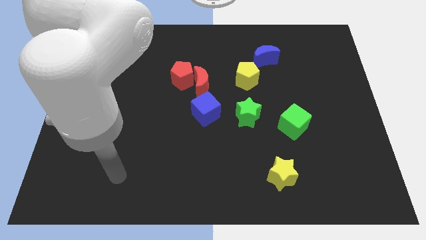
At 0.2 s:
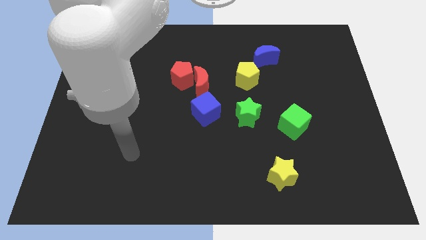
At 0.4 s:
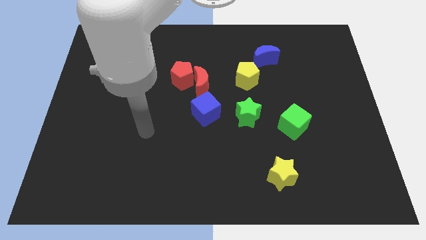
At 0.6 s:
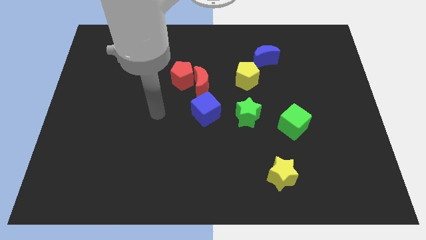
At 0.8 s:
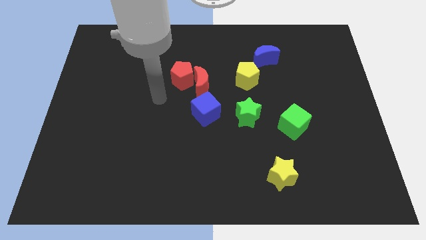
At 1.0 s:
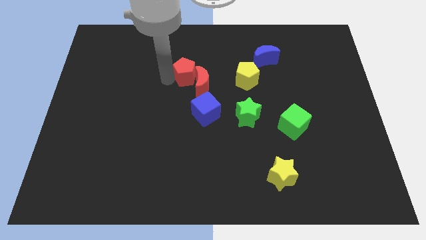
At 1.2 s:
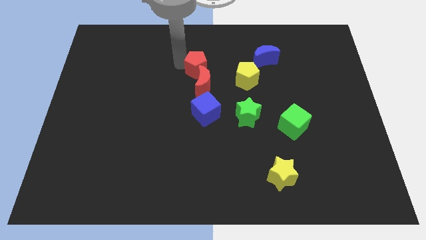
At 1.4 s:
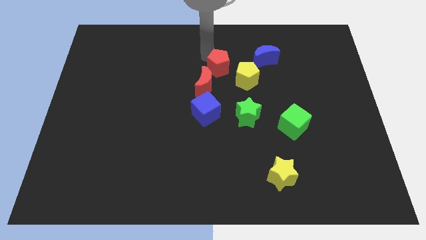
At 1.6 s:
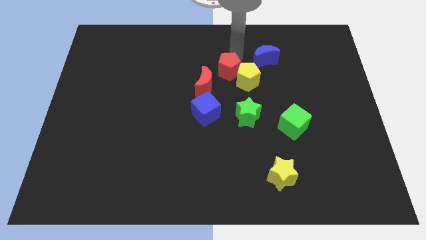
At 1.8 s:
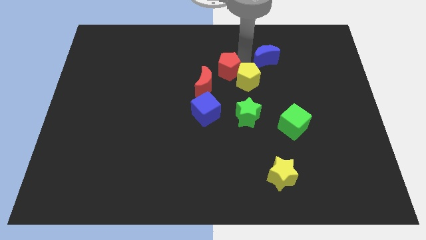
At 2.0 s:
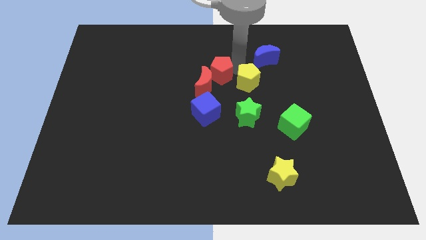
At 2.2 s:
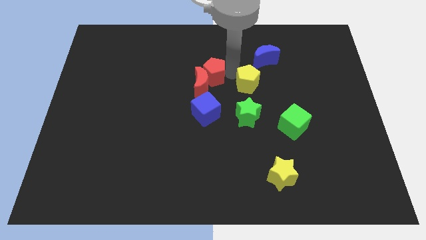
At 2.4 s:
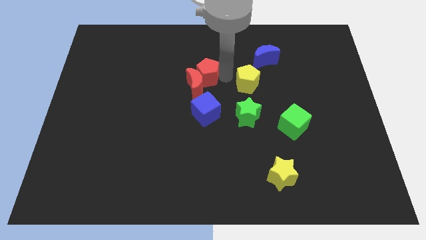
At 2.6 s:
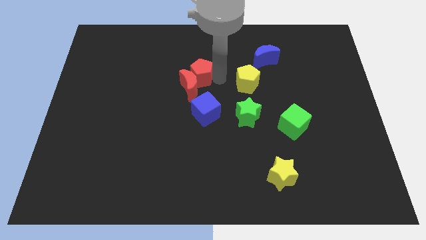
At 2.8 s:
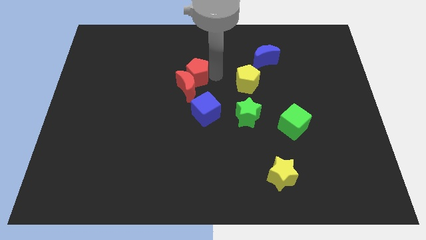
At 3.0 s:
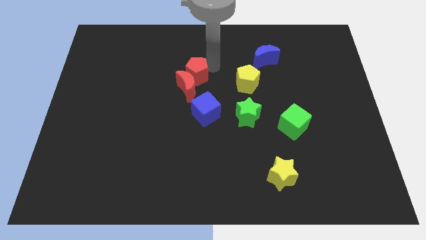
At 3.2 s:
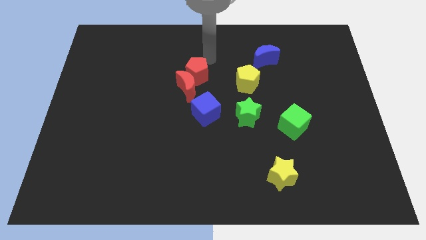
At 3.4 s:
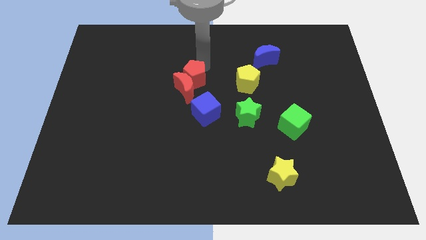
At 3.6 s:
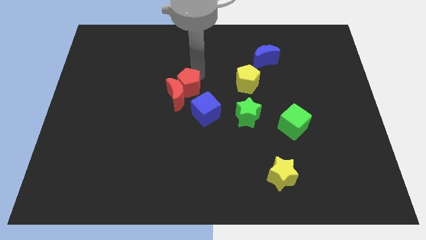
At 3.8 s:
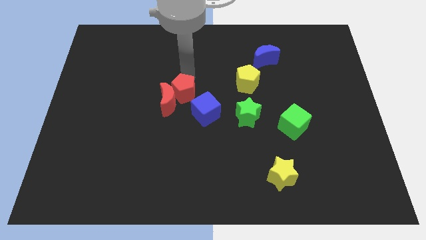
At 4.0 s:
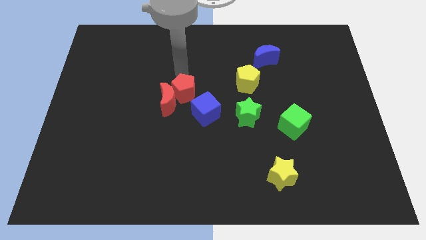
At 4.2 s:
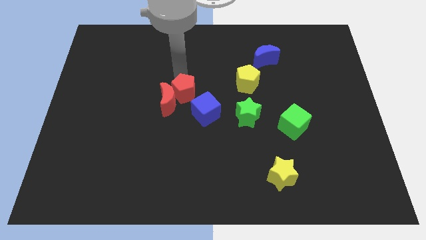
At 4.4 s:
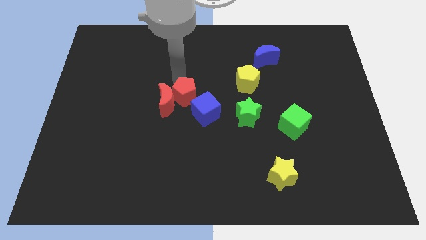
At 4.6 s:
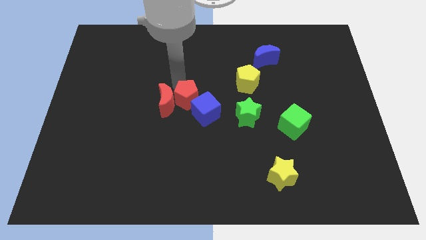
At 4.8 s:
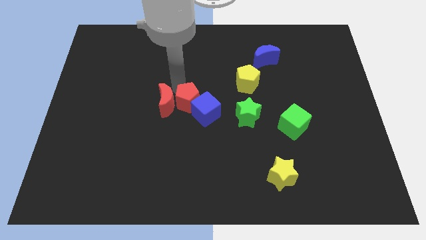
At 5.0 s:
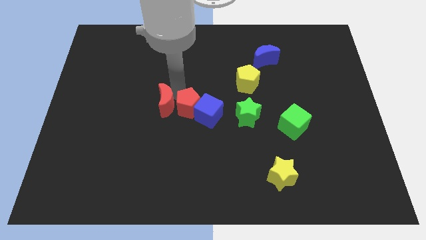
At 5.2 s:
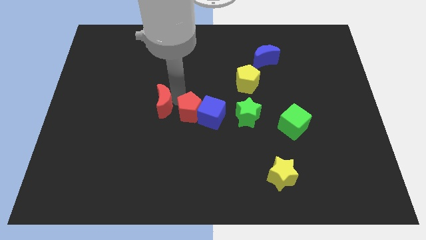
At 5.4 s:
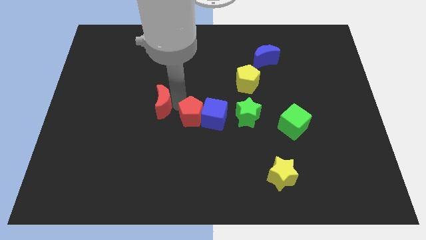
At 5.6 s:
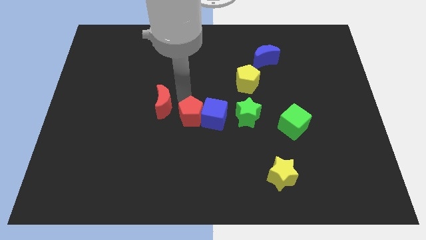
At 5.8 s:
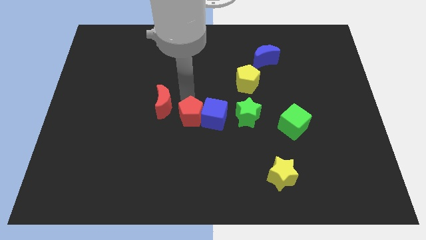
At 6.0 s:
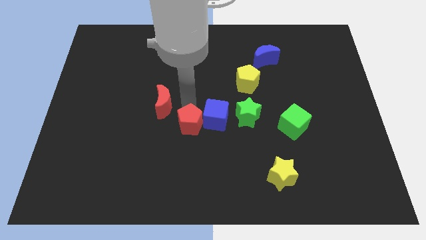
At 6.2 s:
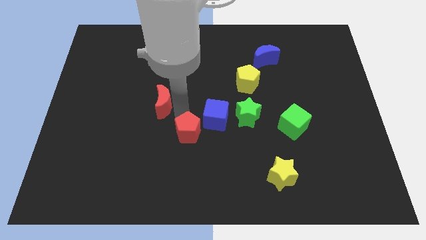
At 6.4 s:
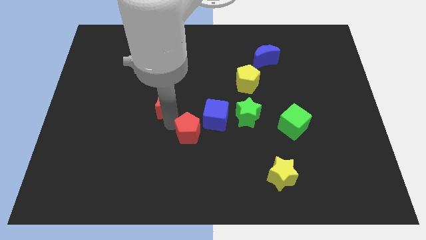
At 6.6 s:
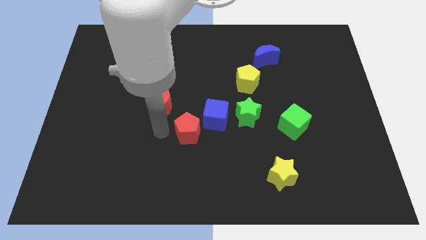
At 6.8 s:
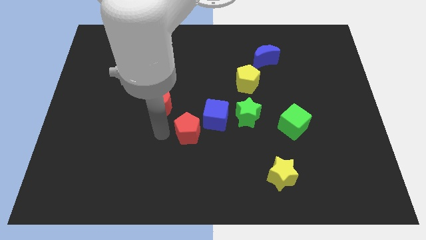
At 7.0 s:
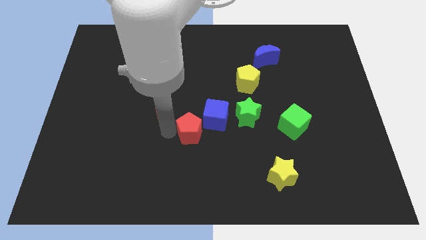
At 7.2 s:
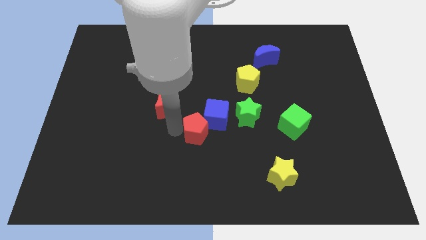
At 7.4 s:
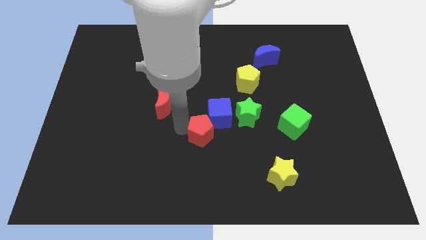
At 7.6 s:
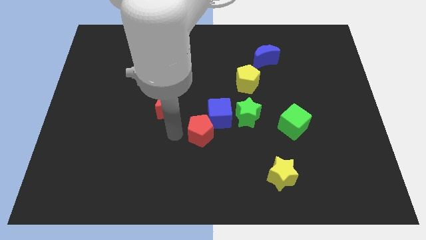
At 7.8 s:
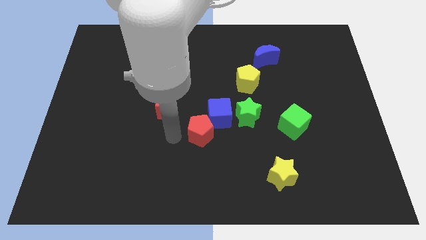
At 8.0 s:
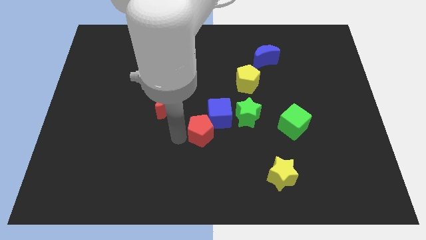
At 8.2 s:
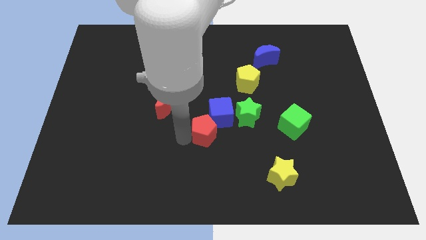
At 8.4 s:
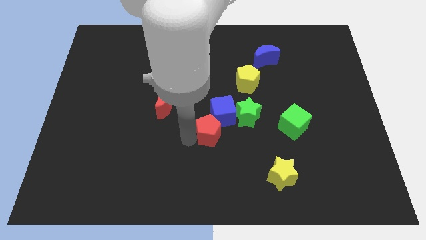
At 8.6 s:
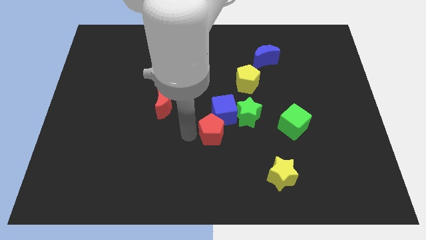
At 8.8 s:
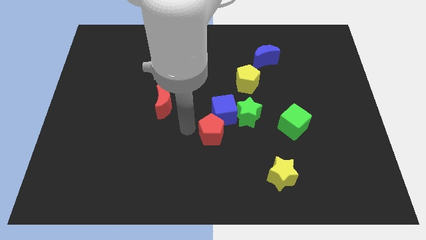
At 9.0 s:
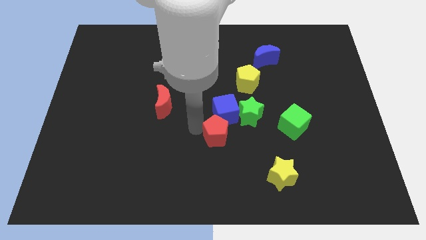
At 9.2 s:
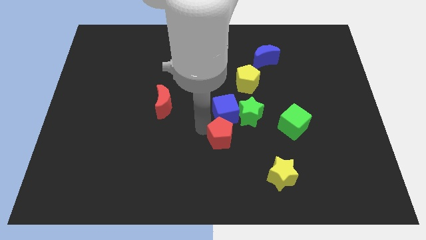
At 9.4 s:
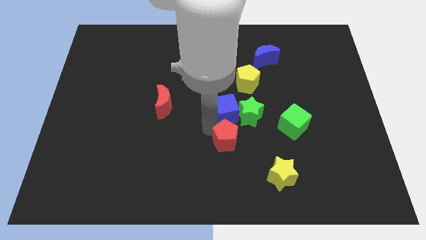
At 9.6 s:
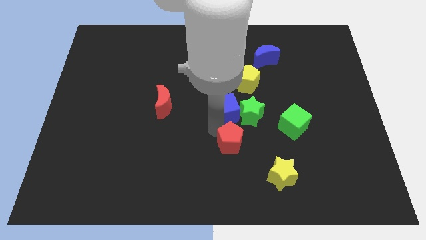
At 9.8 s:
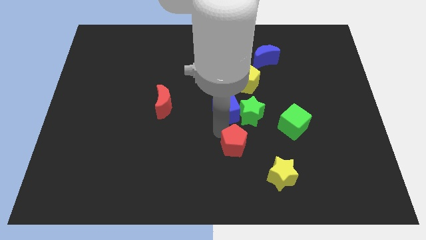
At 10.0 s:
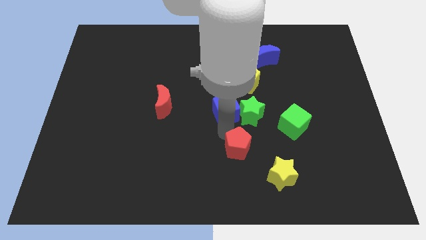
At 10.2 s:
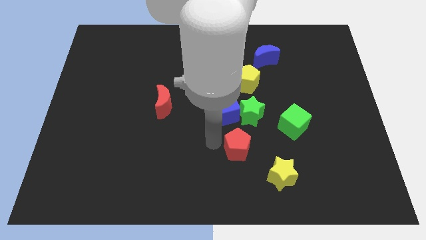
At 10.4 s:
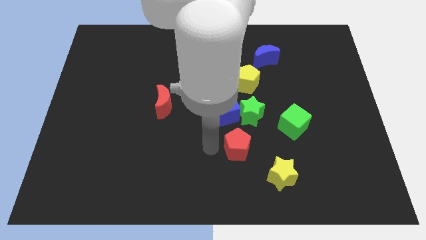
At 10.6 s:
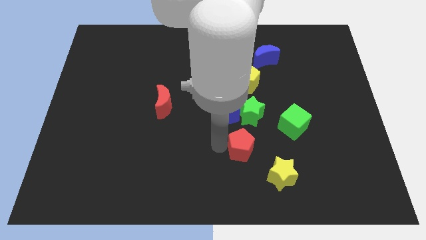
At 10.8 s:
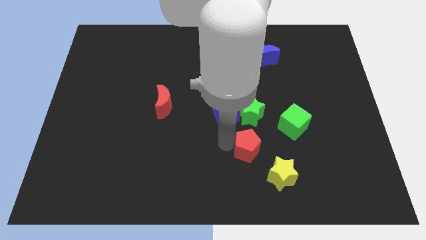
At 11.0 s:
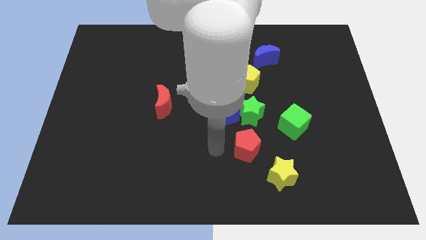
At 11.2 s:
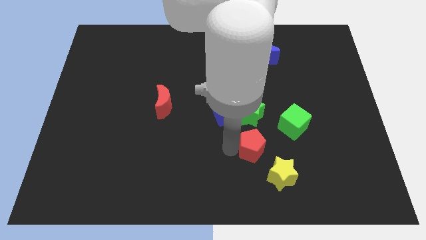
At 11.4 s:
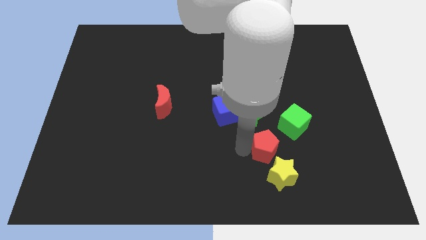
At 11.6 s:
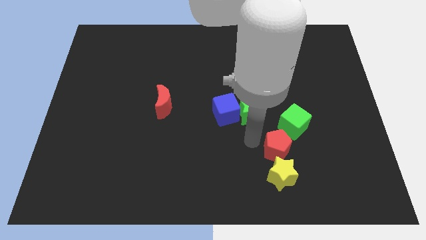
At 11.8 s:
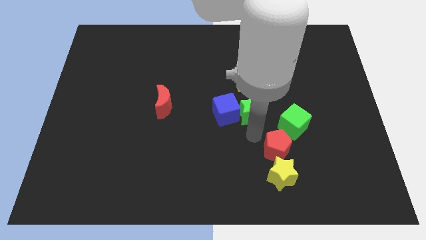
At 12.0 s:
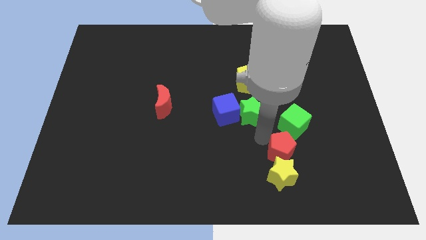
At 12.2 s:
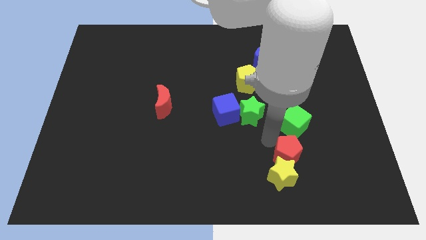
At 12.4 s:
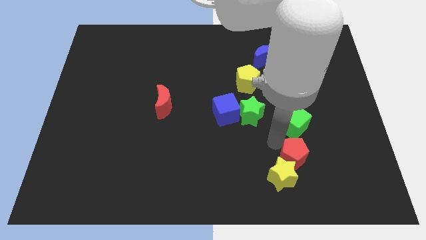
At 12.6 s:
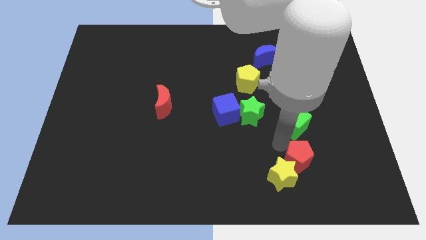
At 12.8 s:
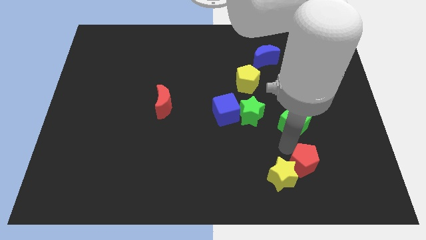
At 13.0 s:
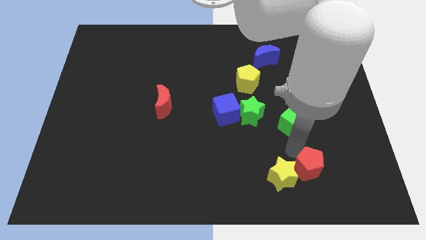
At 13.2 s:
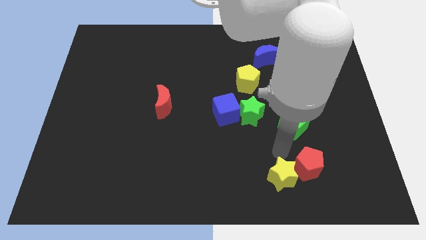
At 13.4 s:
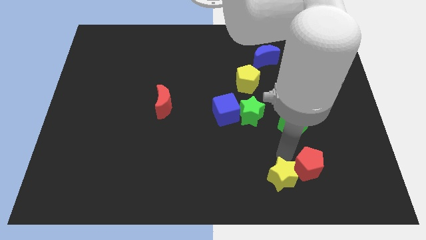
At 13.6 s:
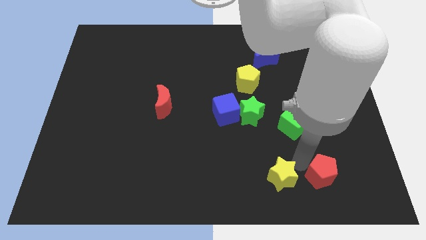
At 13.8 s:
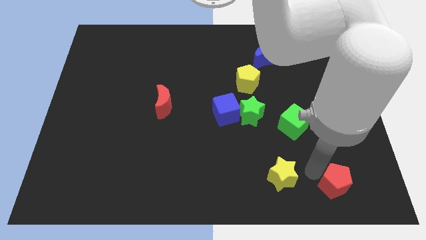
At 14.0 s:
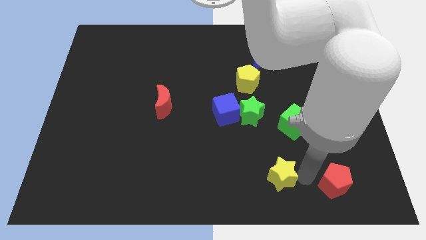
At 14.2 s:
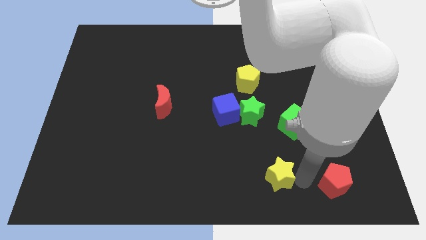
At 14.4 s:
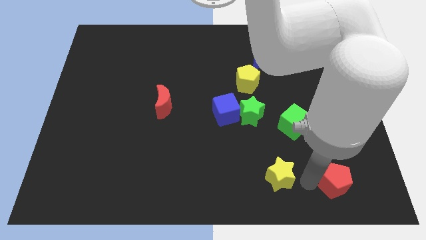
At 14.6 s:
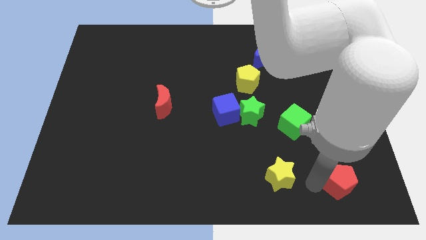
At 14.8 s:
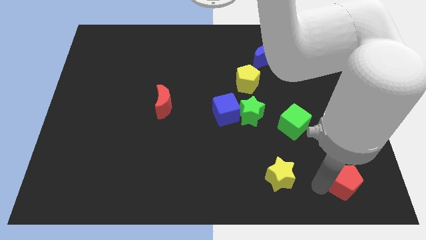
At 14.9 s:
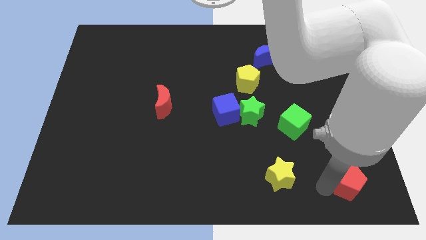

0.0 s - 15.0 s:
push the red pentagon to the bottom right of the board
